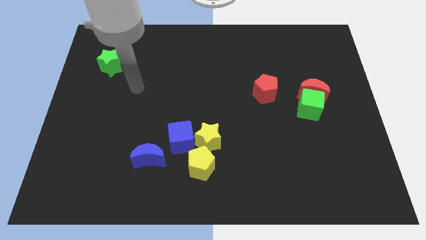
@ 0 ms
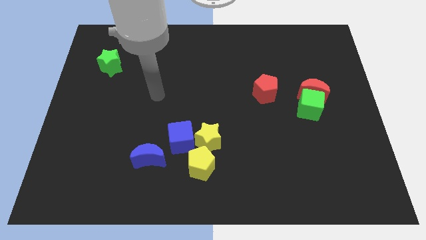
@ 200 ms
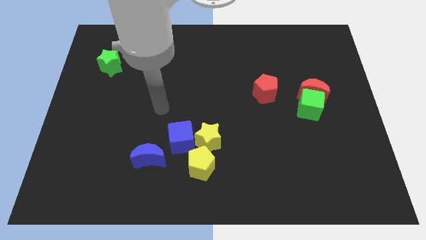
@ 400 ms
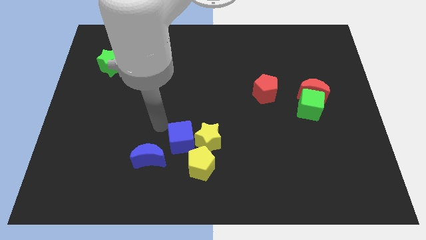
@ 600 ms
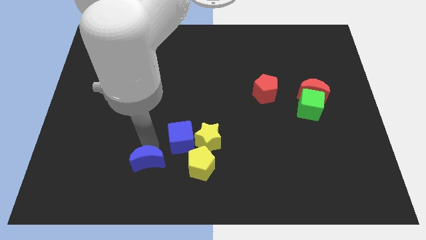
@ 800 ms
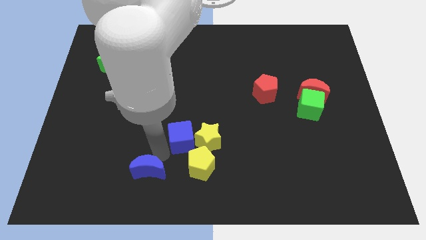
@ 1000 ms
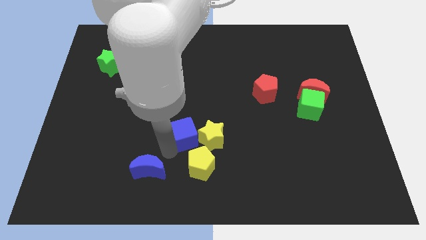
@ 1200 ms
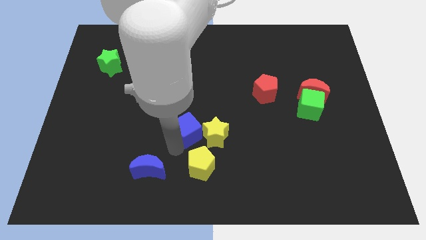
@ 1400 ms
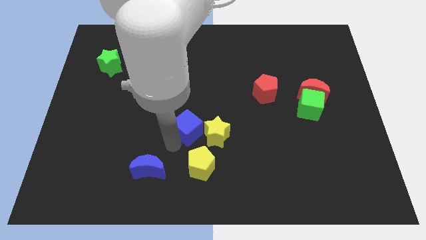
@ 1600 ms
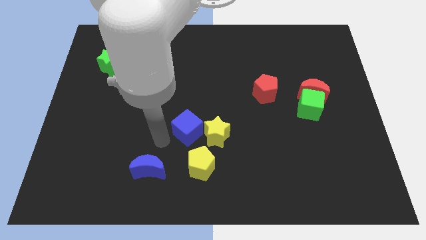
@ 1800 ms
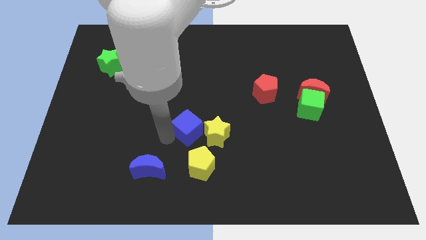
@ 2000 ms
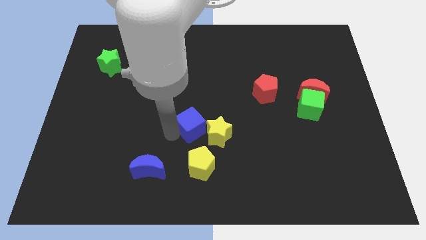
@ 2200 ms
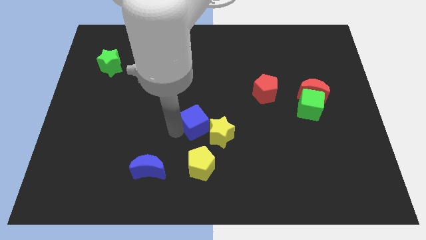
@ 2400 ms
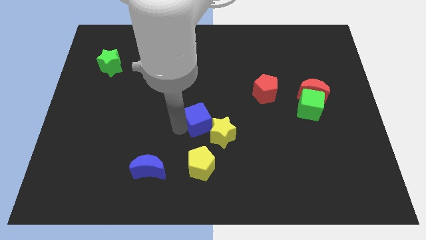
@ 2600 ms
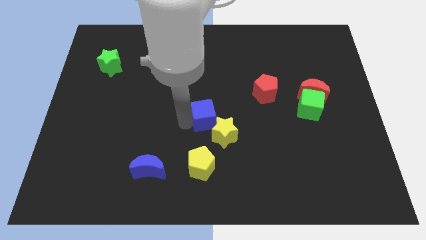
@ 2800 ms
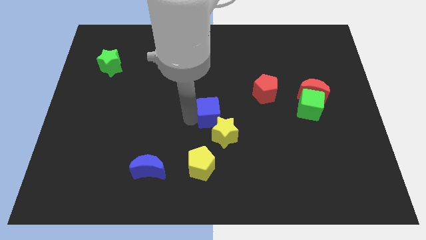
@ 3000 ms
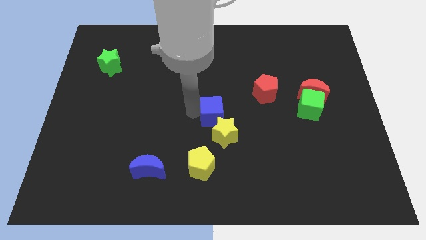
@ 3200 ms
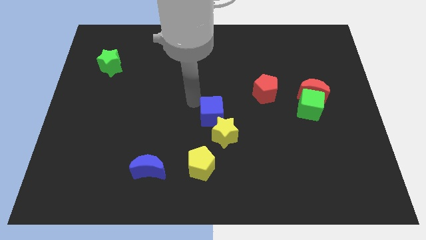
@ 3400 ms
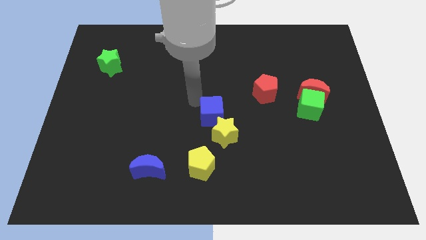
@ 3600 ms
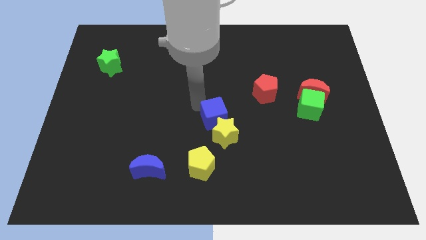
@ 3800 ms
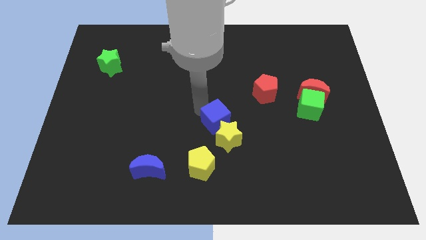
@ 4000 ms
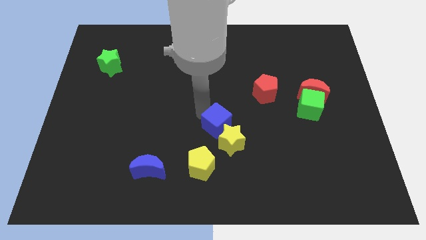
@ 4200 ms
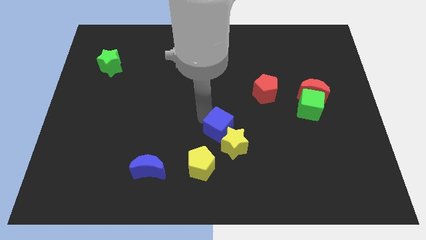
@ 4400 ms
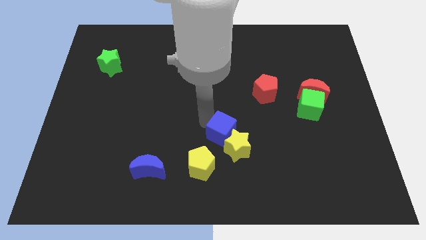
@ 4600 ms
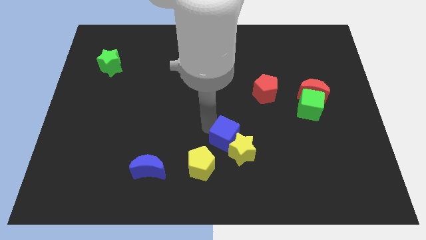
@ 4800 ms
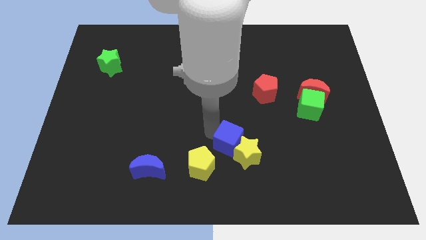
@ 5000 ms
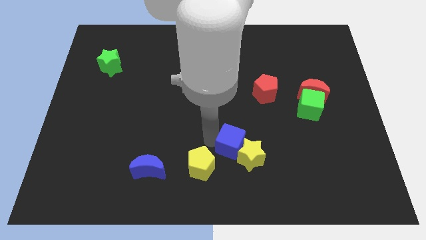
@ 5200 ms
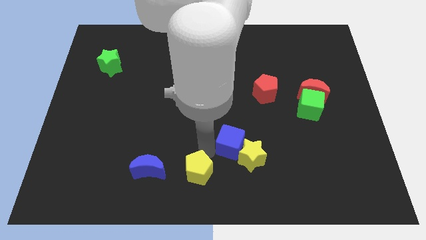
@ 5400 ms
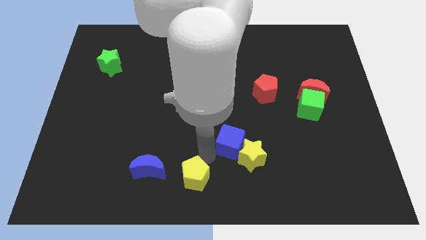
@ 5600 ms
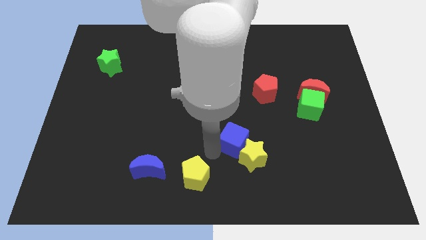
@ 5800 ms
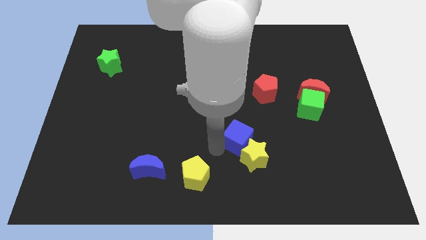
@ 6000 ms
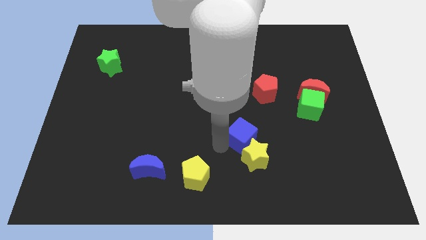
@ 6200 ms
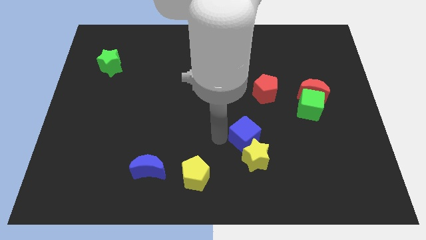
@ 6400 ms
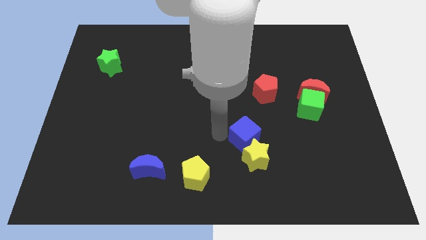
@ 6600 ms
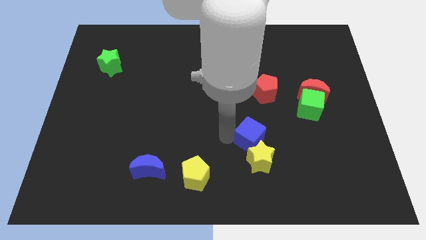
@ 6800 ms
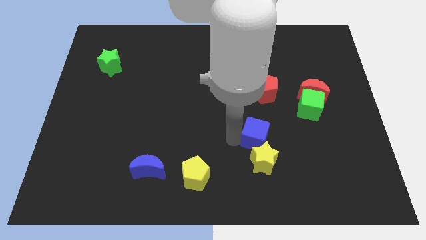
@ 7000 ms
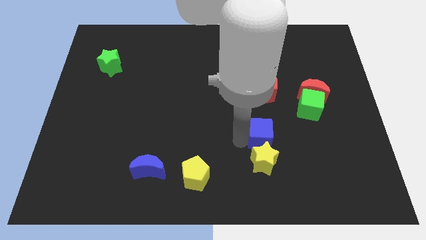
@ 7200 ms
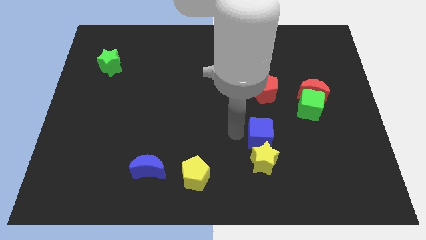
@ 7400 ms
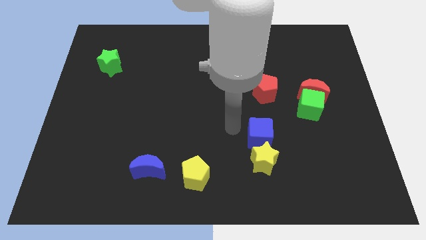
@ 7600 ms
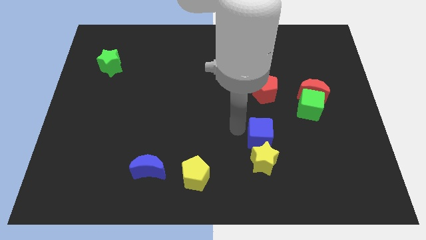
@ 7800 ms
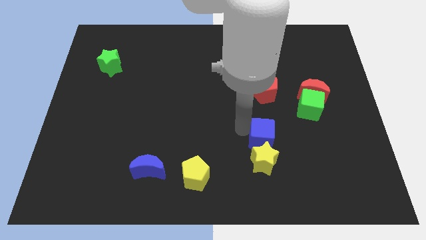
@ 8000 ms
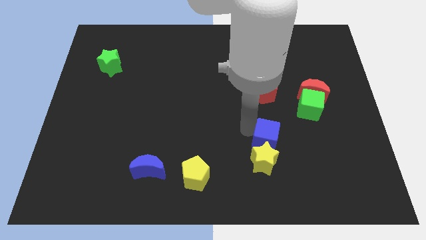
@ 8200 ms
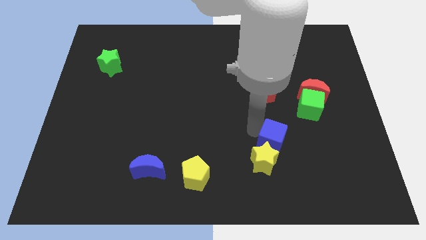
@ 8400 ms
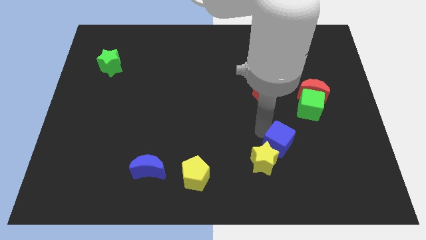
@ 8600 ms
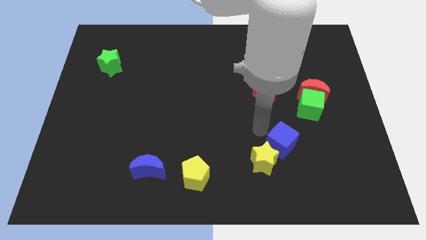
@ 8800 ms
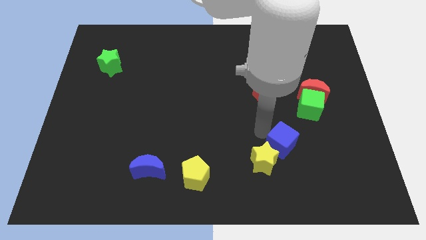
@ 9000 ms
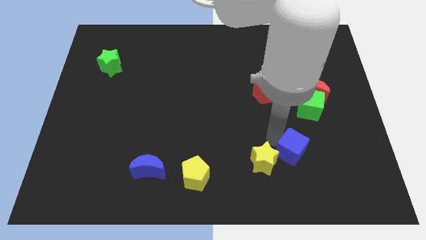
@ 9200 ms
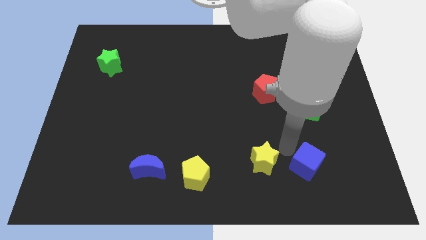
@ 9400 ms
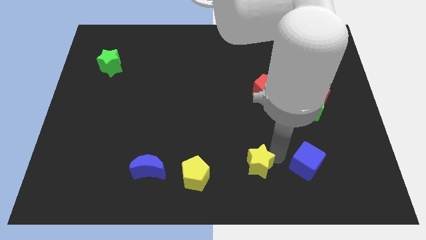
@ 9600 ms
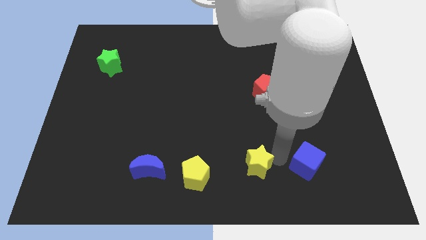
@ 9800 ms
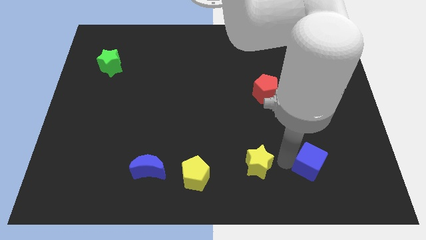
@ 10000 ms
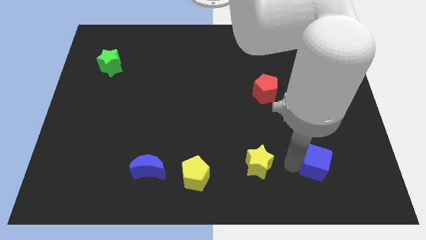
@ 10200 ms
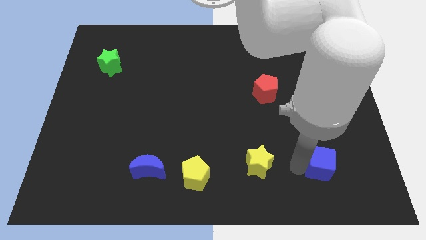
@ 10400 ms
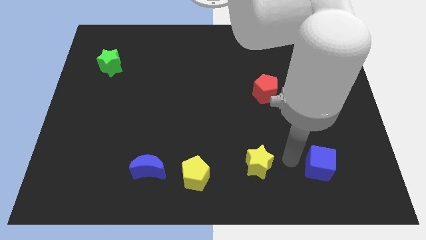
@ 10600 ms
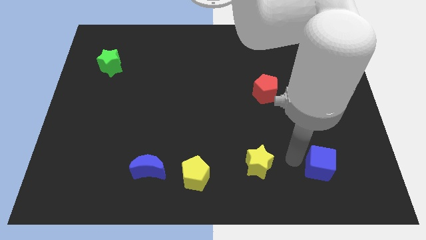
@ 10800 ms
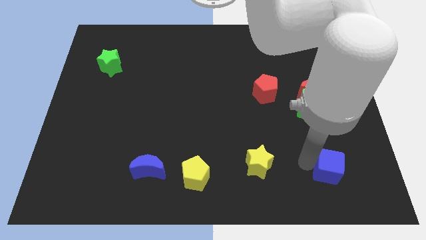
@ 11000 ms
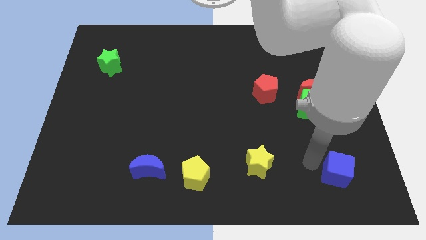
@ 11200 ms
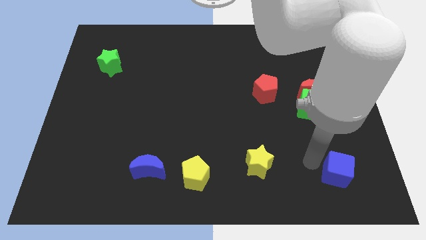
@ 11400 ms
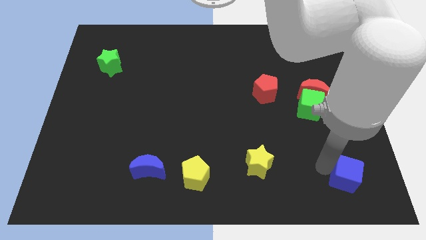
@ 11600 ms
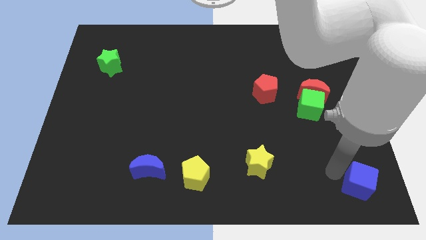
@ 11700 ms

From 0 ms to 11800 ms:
slide the blue cube to the lower right corner
